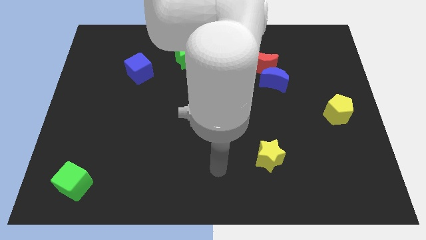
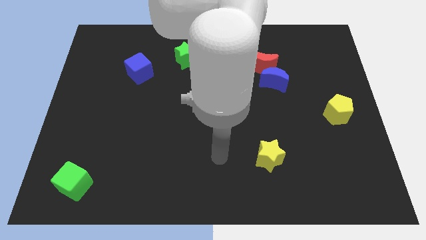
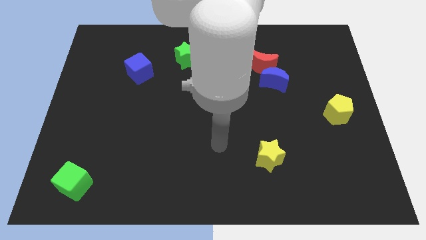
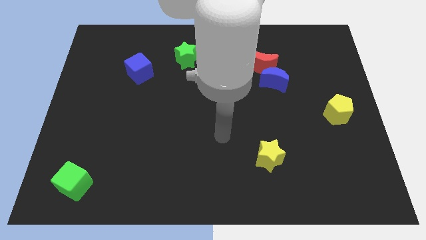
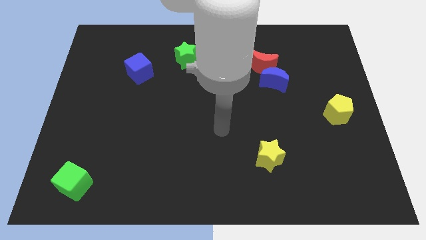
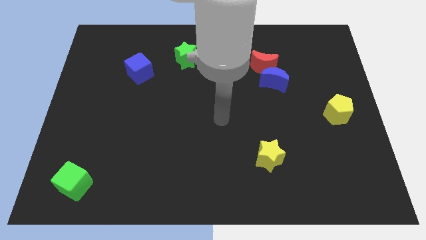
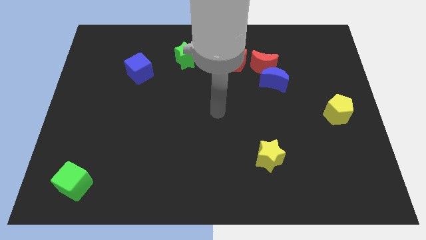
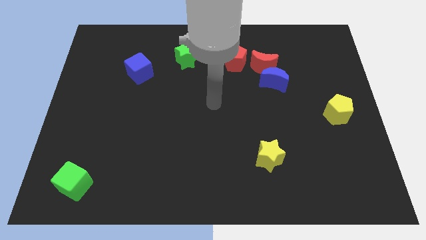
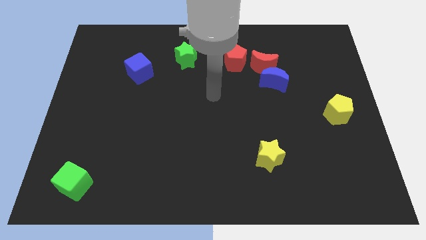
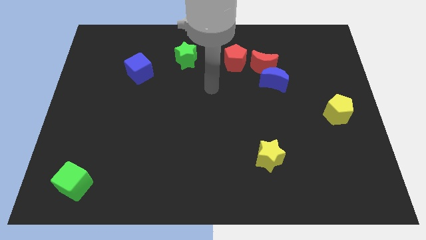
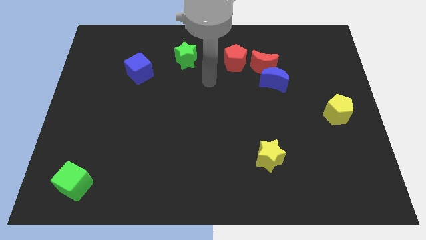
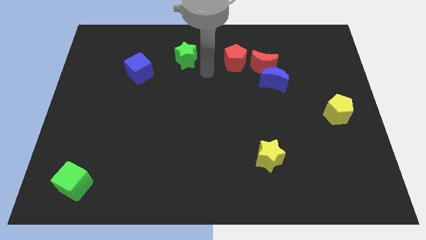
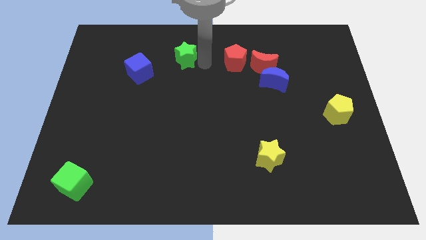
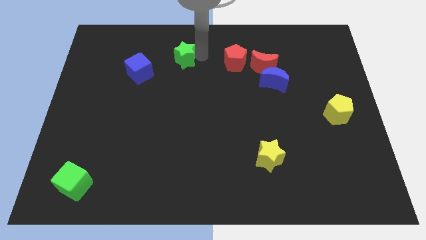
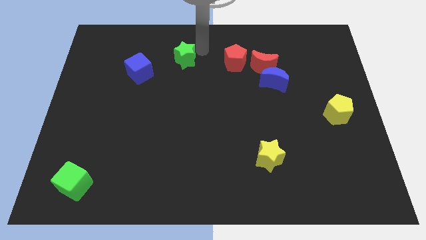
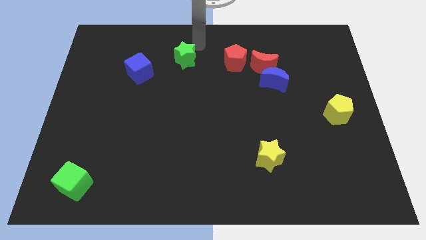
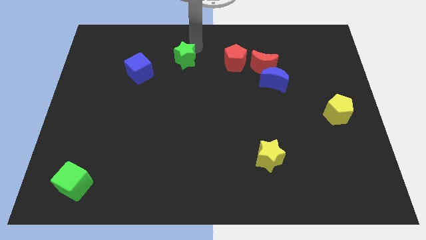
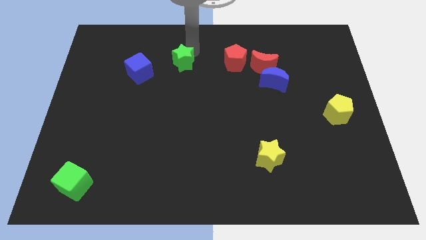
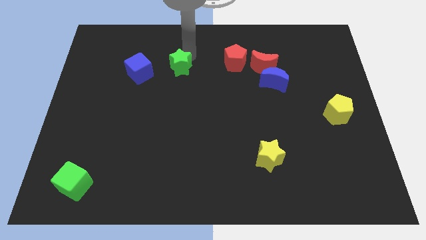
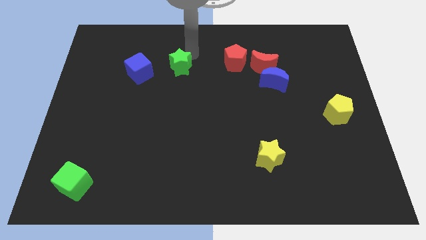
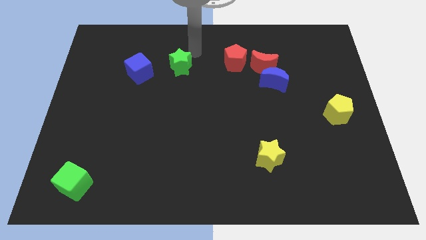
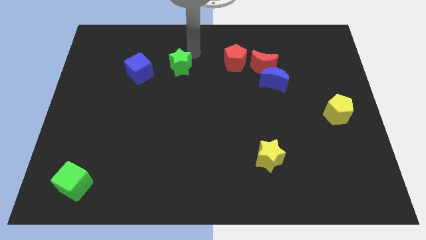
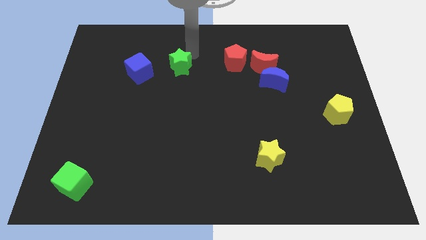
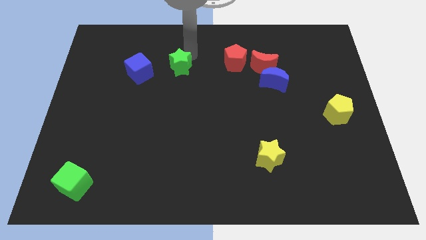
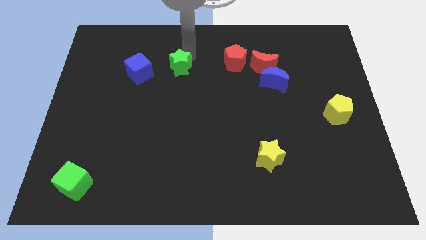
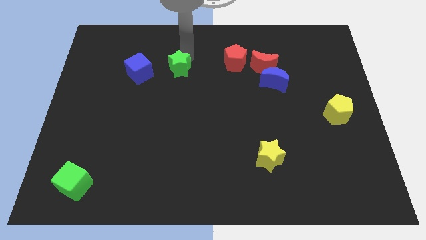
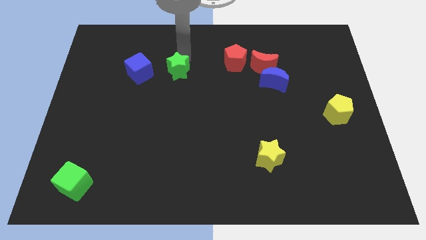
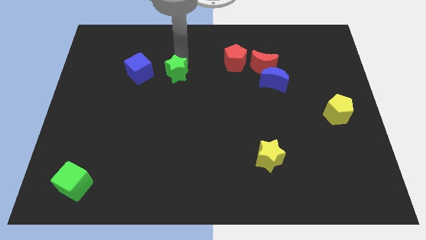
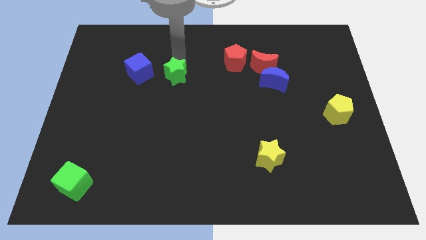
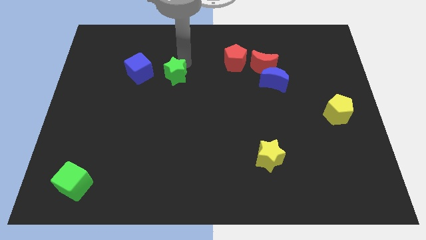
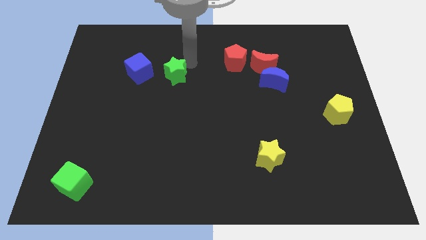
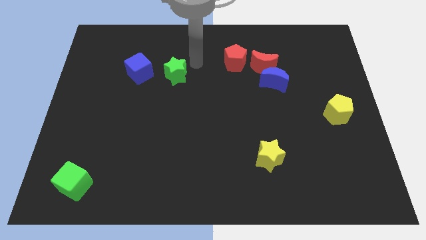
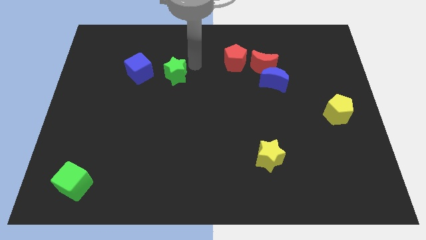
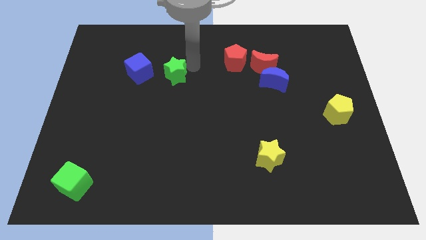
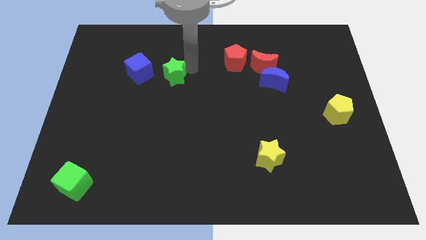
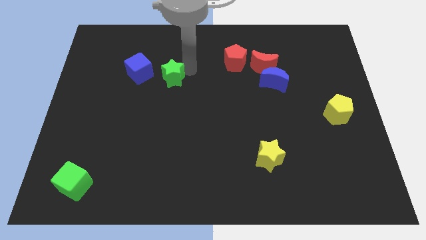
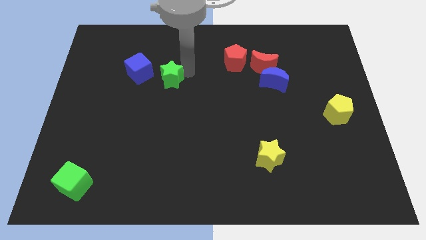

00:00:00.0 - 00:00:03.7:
slightly slide the green star diagonally down and left

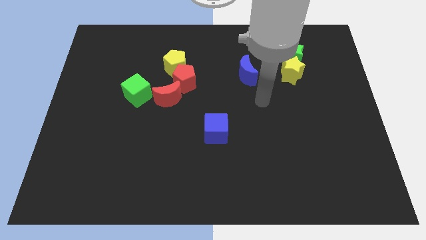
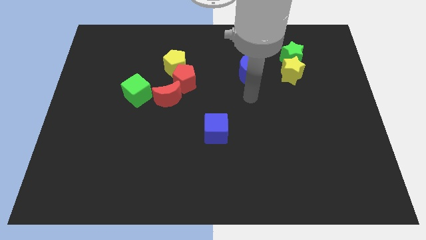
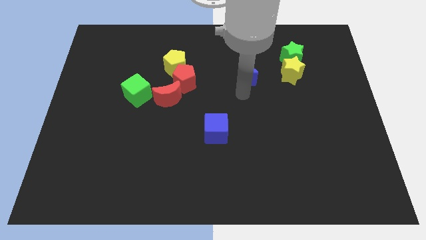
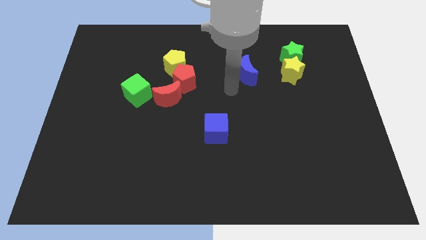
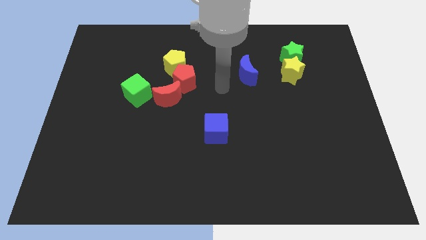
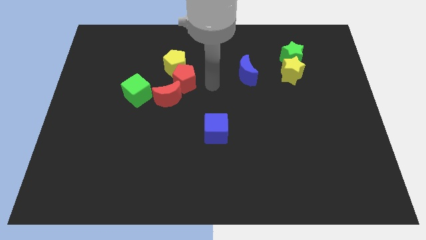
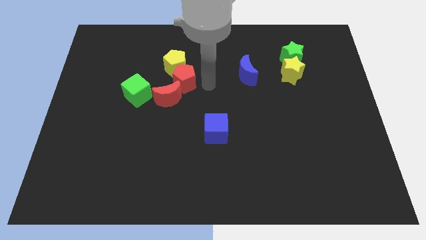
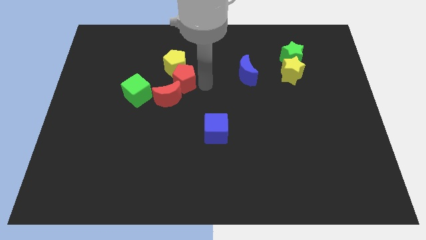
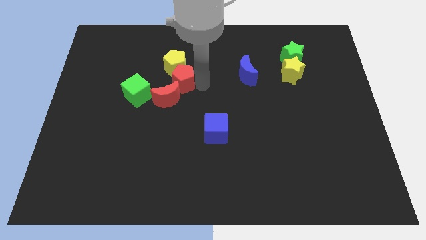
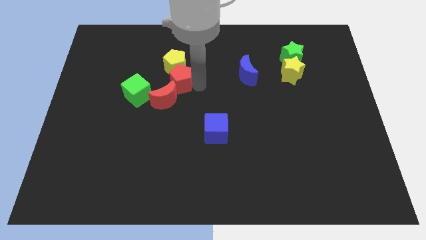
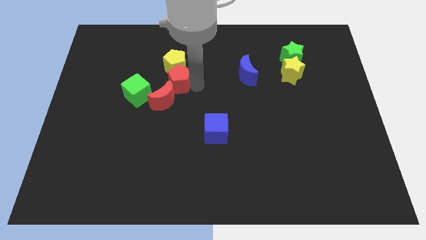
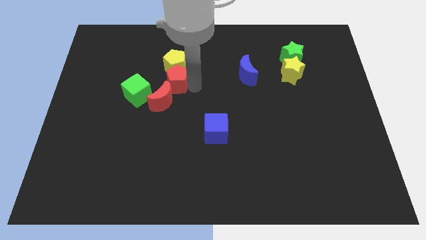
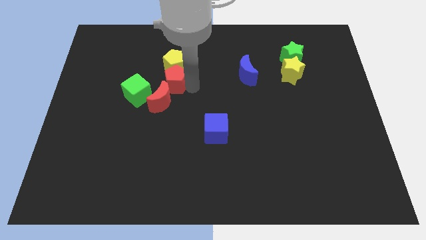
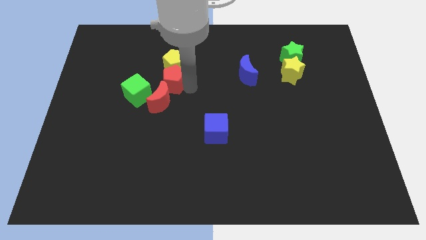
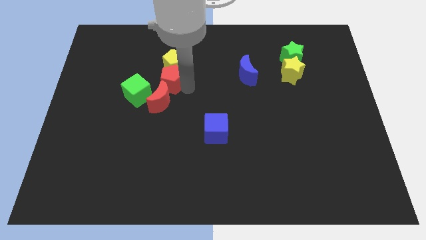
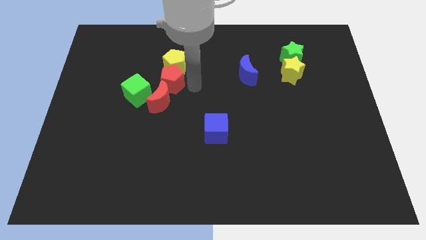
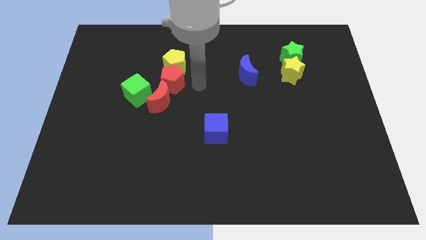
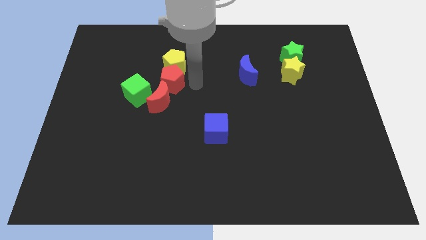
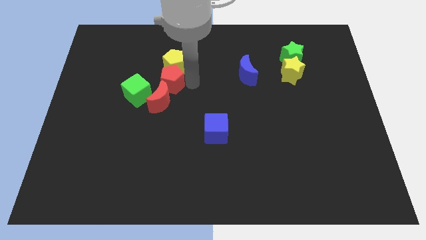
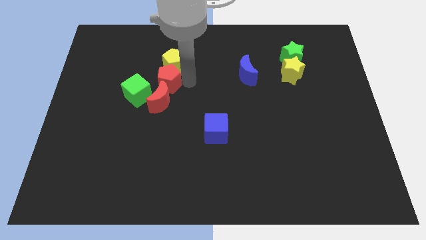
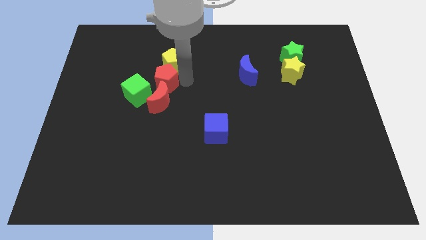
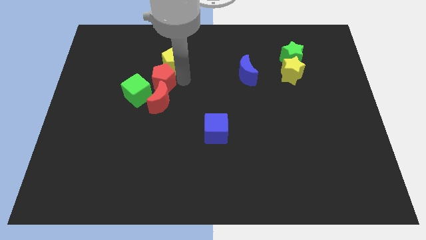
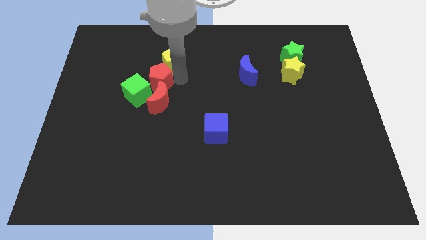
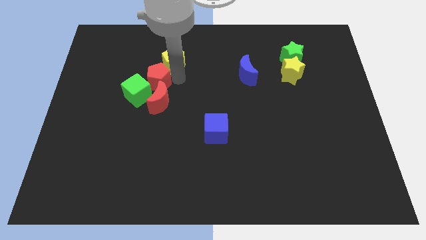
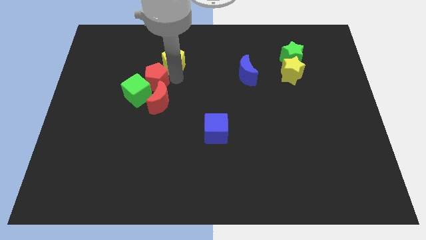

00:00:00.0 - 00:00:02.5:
move the red pentagon left a little

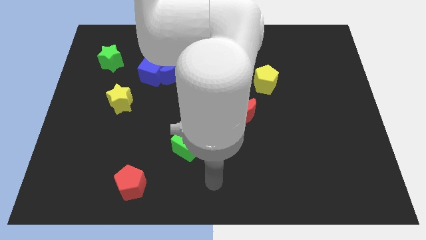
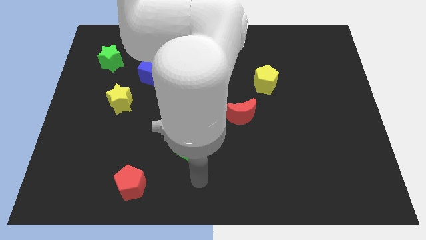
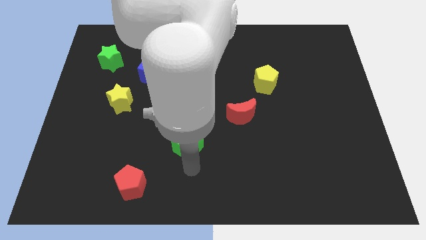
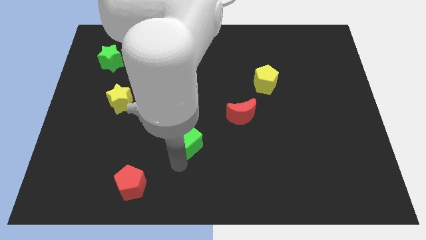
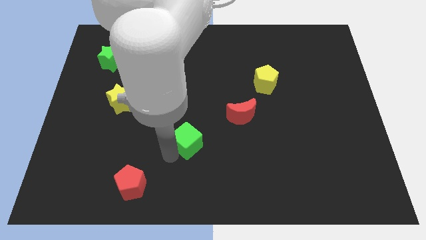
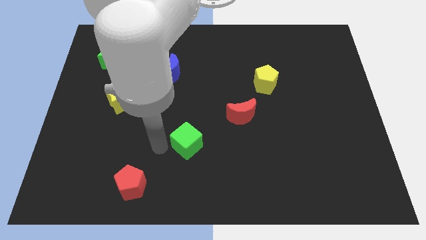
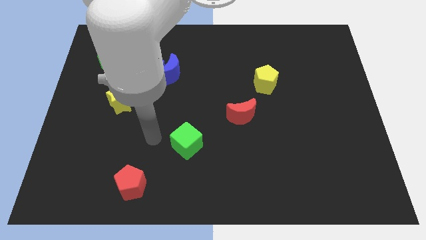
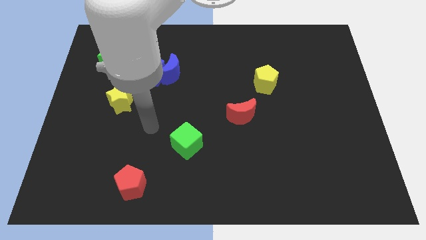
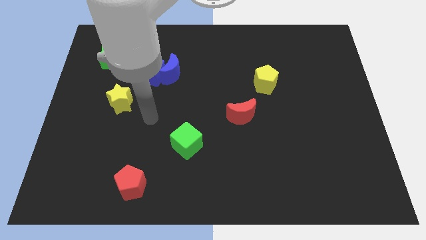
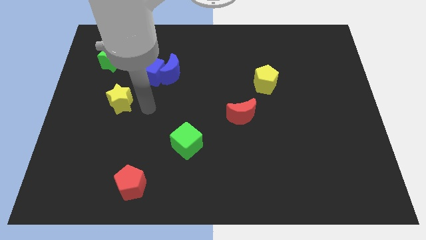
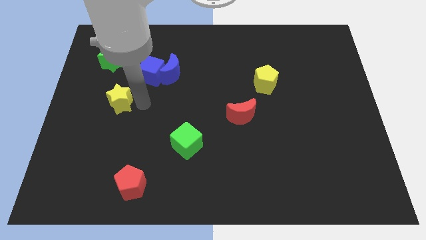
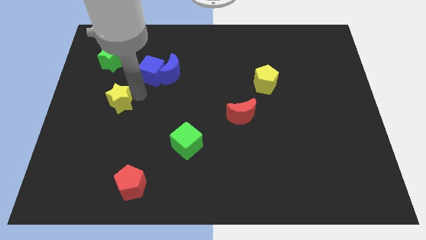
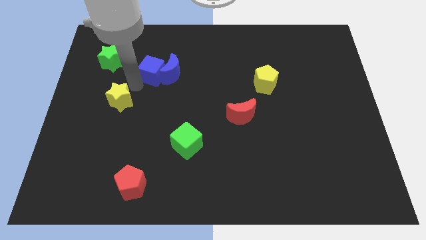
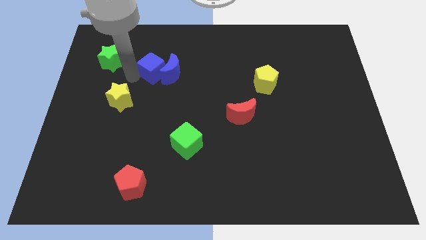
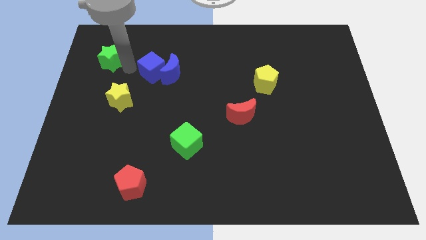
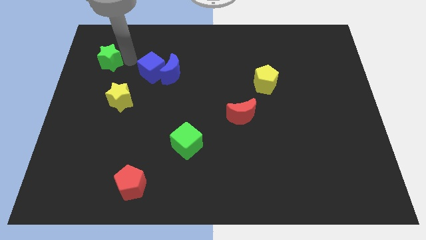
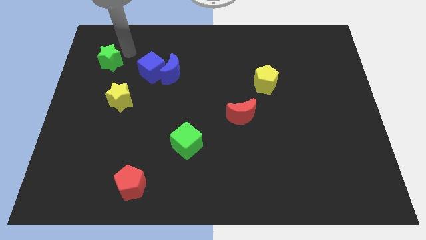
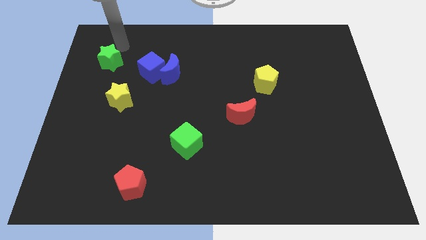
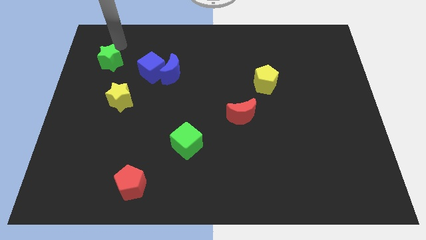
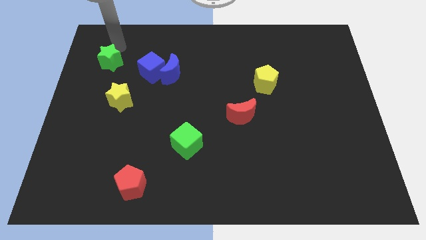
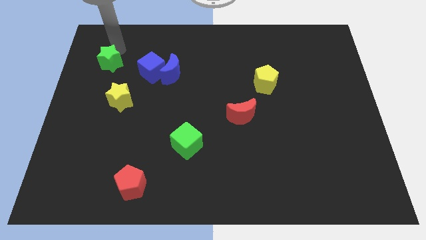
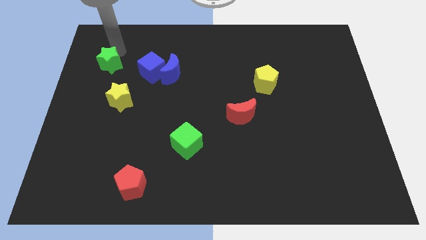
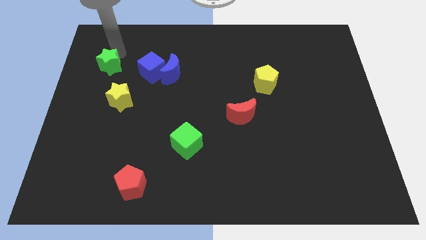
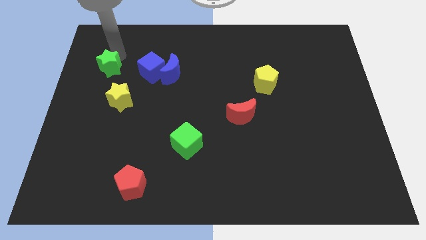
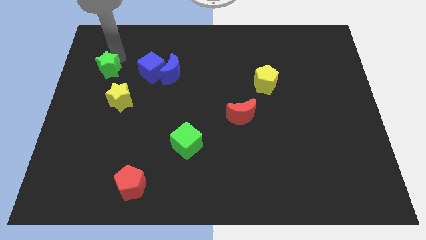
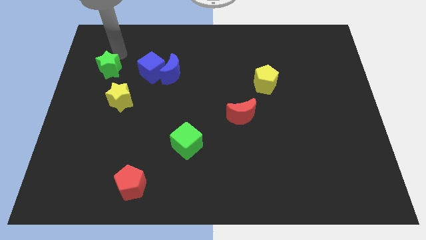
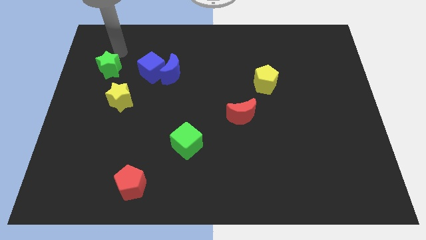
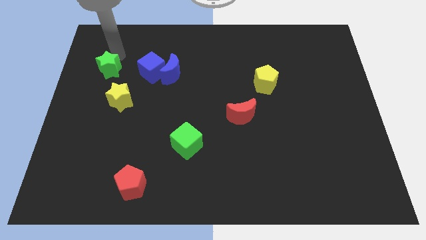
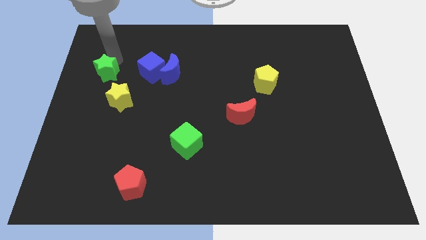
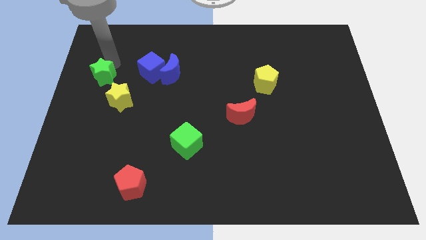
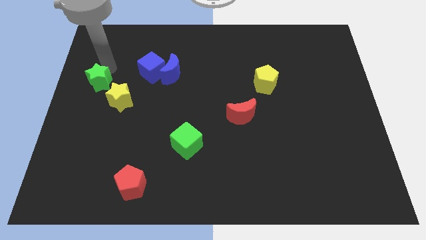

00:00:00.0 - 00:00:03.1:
push the green star somewhat downwards
